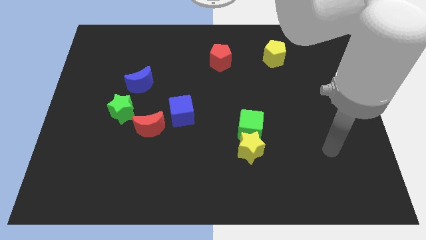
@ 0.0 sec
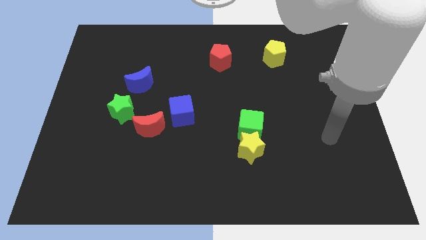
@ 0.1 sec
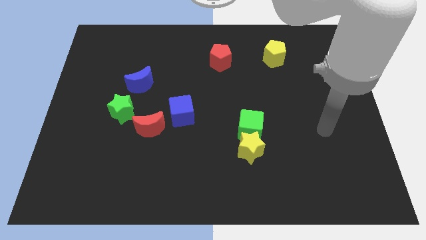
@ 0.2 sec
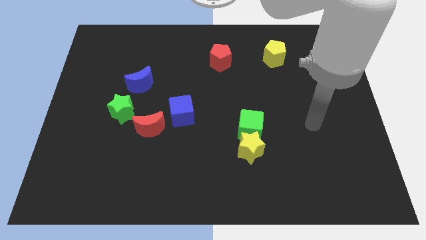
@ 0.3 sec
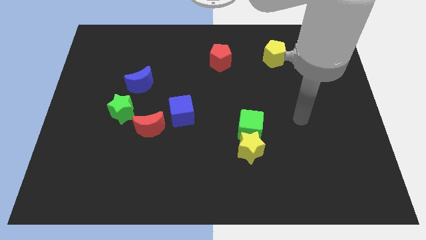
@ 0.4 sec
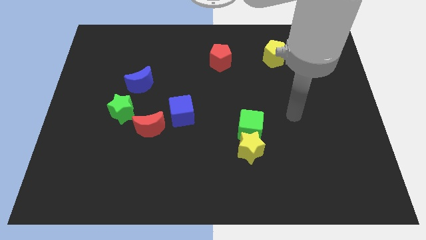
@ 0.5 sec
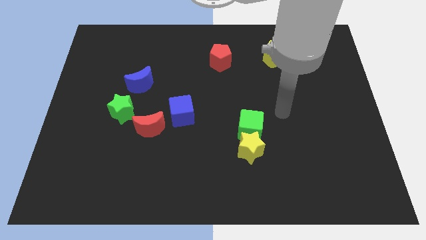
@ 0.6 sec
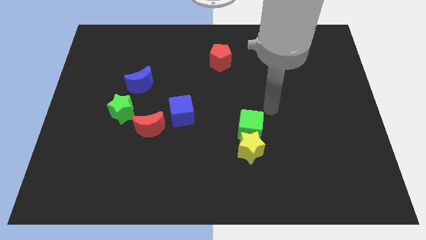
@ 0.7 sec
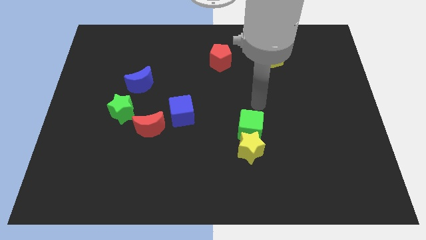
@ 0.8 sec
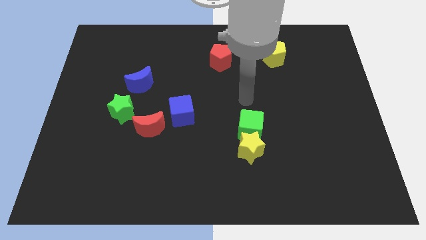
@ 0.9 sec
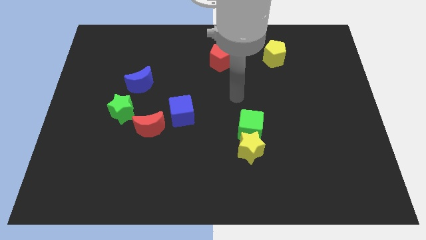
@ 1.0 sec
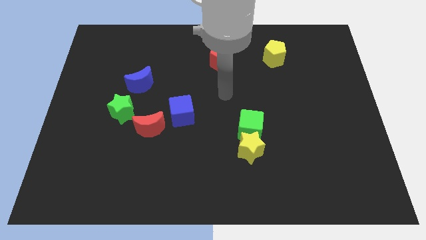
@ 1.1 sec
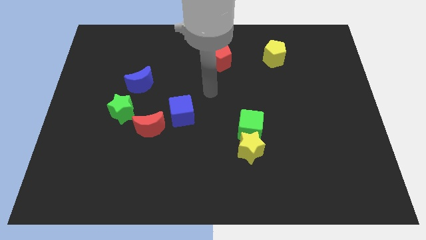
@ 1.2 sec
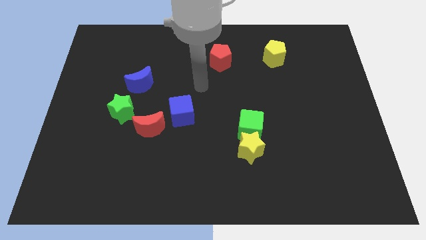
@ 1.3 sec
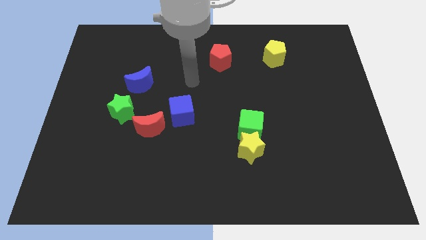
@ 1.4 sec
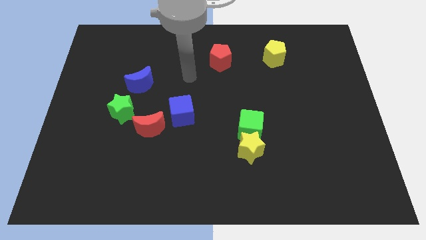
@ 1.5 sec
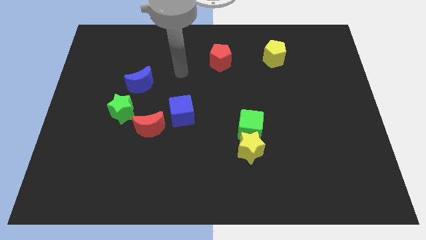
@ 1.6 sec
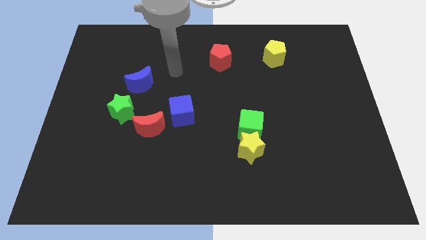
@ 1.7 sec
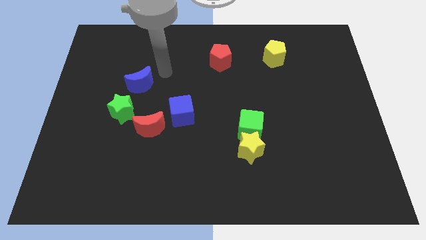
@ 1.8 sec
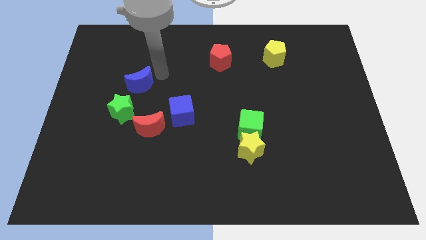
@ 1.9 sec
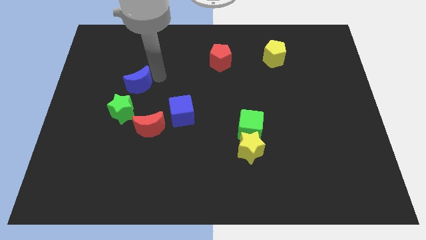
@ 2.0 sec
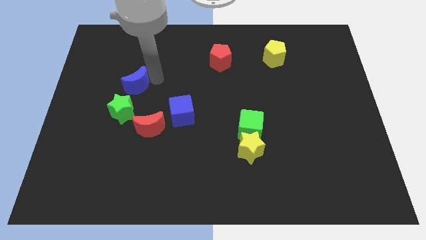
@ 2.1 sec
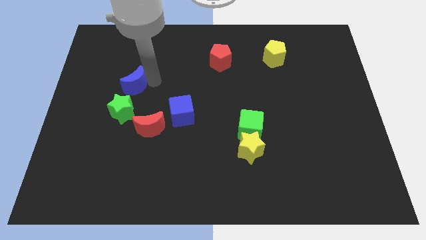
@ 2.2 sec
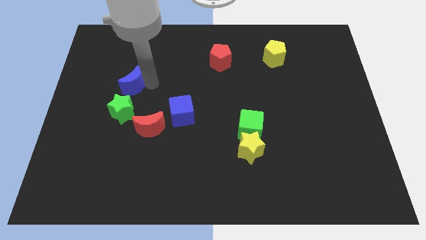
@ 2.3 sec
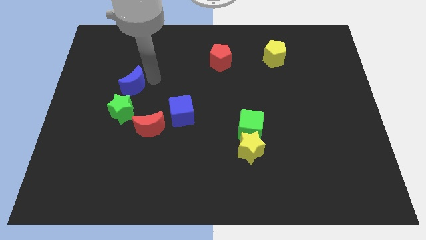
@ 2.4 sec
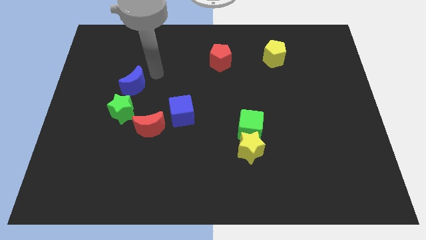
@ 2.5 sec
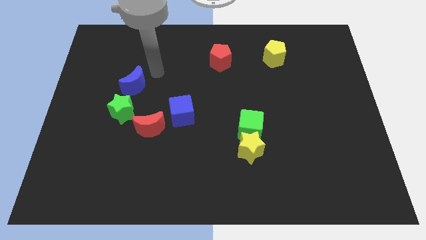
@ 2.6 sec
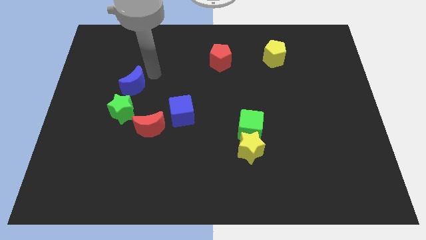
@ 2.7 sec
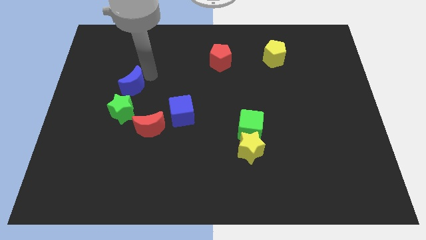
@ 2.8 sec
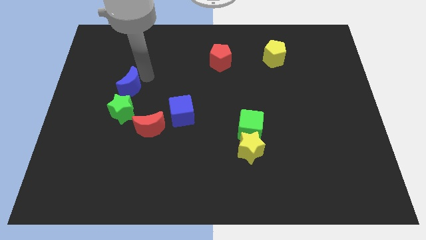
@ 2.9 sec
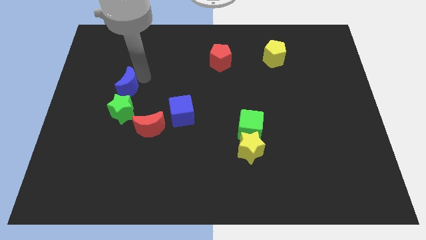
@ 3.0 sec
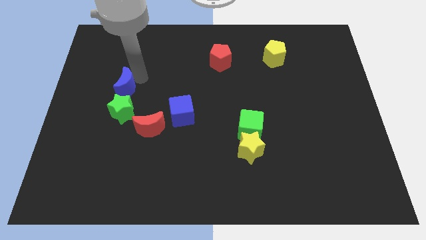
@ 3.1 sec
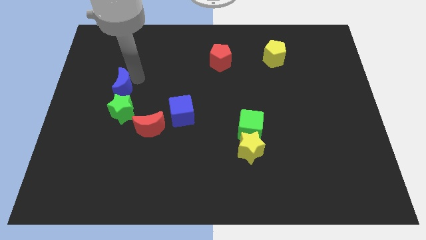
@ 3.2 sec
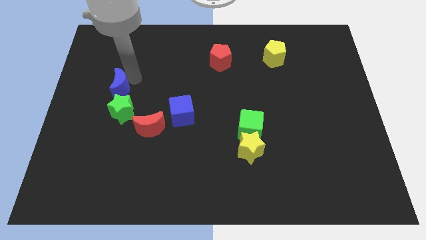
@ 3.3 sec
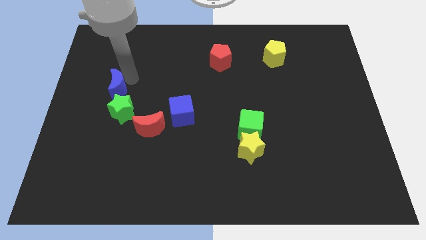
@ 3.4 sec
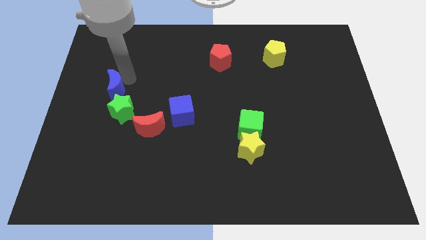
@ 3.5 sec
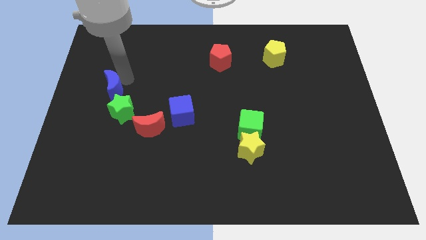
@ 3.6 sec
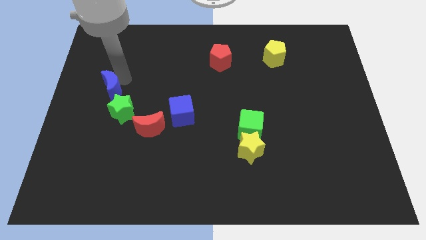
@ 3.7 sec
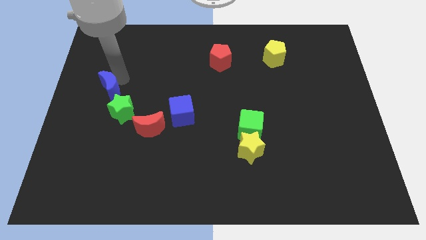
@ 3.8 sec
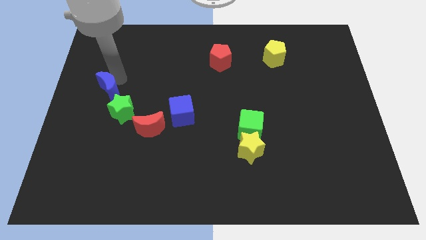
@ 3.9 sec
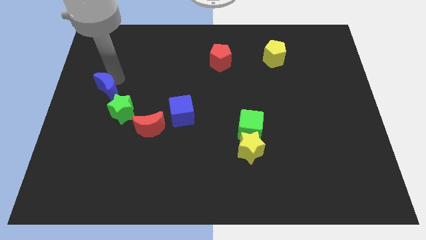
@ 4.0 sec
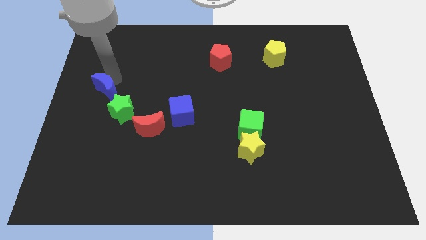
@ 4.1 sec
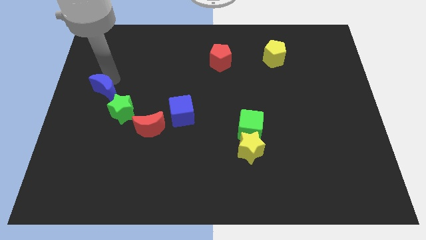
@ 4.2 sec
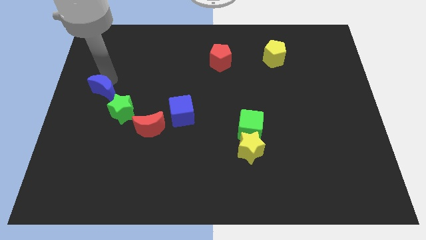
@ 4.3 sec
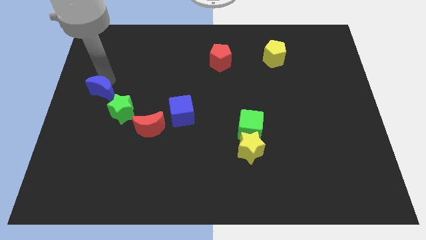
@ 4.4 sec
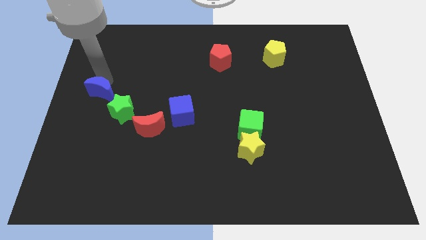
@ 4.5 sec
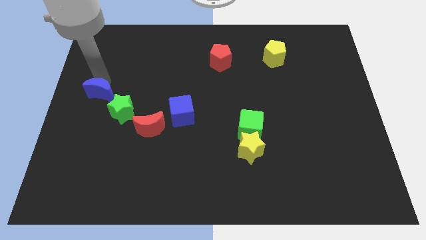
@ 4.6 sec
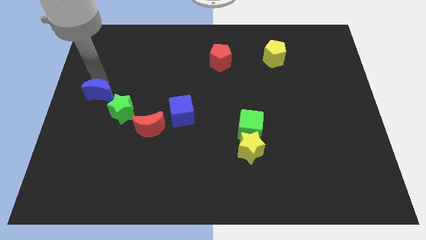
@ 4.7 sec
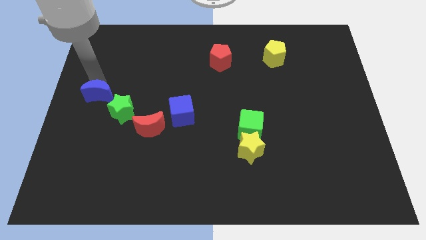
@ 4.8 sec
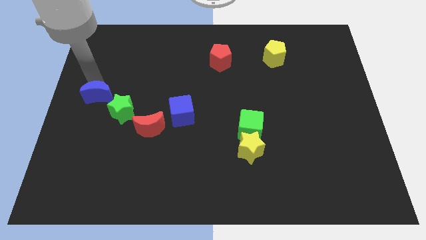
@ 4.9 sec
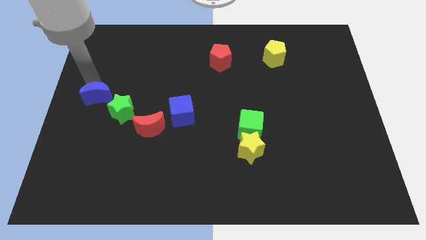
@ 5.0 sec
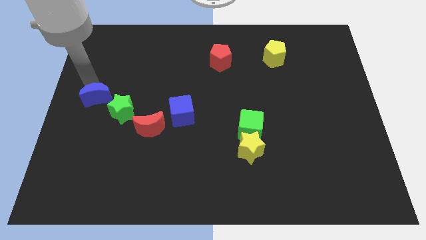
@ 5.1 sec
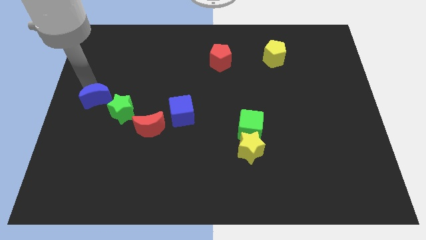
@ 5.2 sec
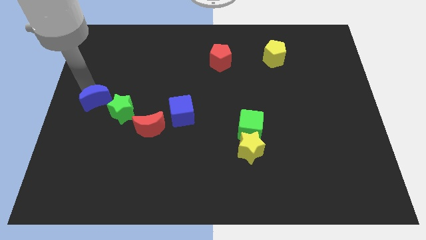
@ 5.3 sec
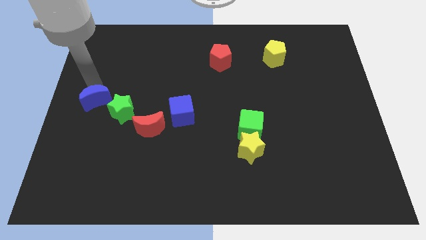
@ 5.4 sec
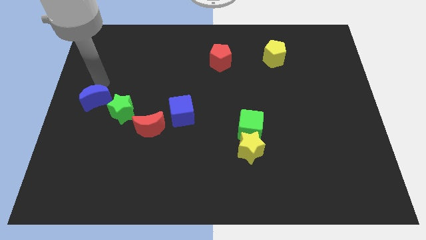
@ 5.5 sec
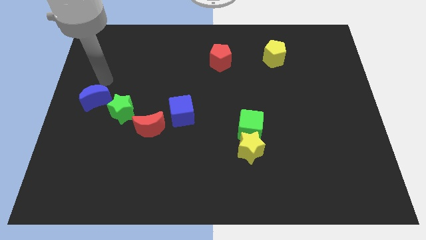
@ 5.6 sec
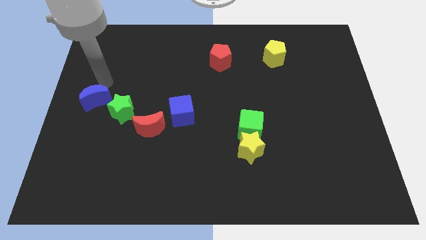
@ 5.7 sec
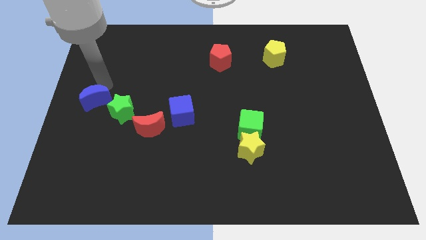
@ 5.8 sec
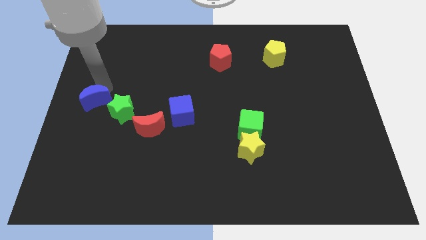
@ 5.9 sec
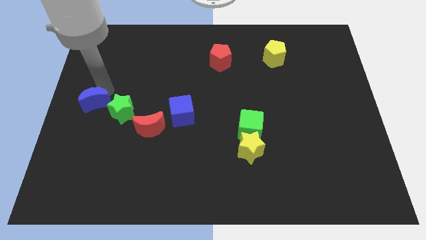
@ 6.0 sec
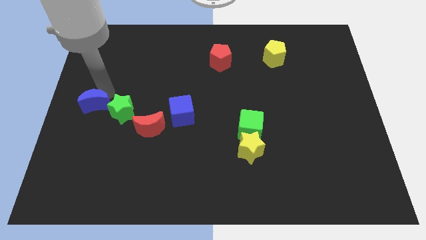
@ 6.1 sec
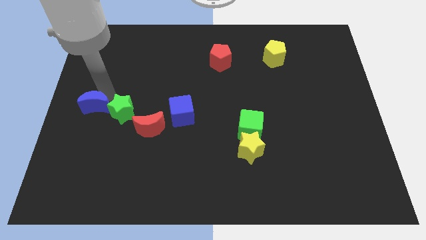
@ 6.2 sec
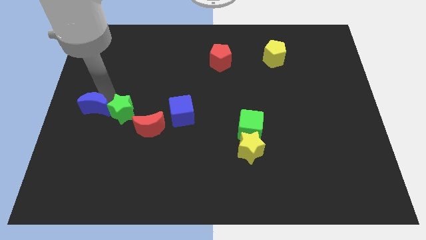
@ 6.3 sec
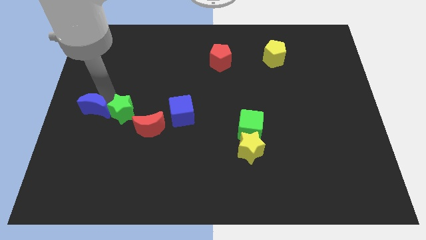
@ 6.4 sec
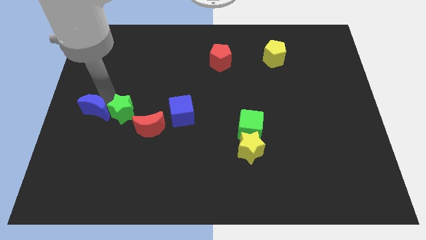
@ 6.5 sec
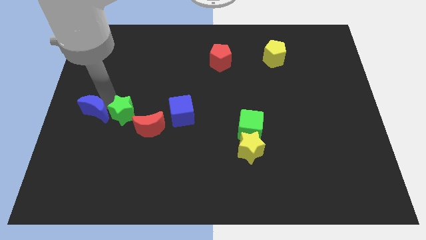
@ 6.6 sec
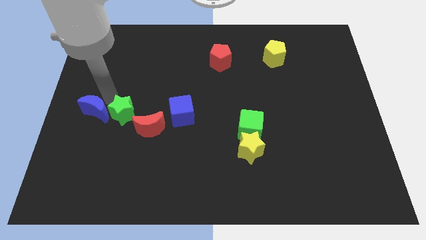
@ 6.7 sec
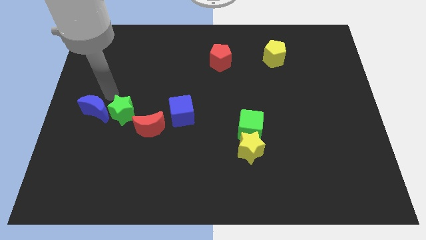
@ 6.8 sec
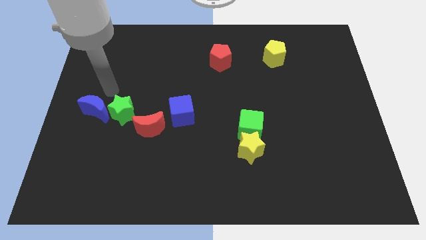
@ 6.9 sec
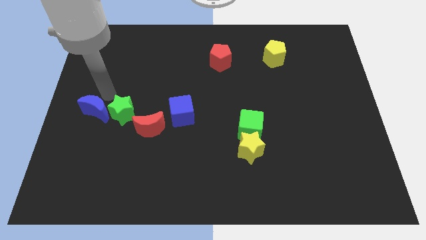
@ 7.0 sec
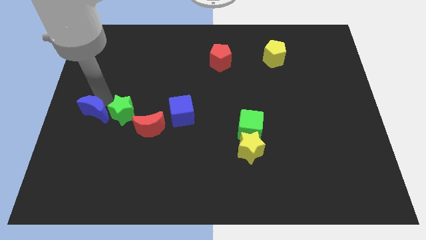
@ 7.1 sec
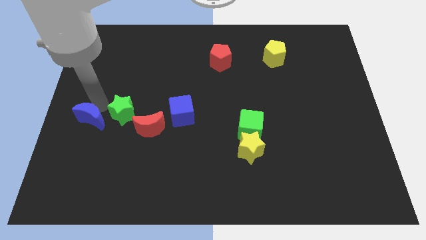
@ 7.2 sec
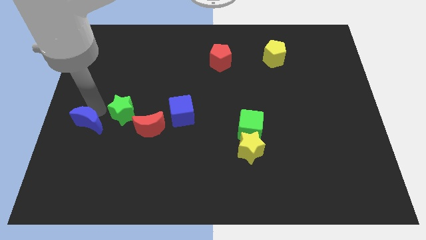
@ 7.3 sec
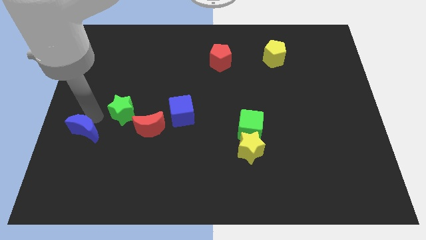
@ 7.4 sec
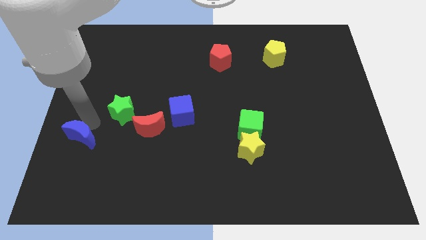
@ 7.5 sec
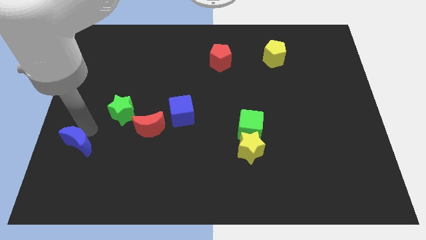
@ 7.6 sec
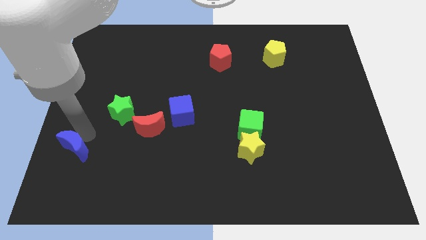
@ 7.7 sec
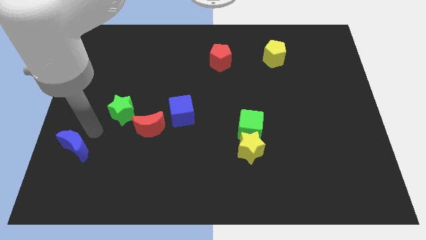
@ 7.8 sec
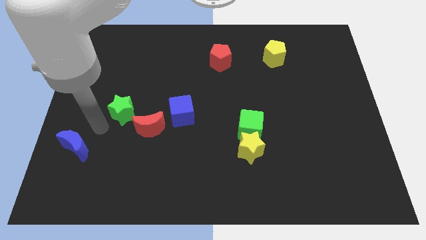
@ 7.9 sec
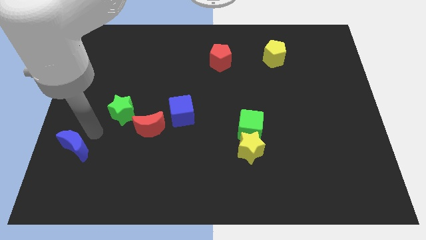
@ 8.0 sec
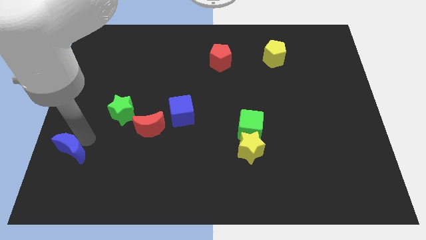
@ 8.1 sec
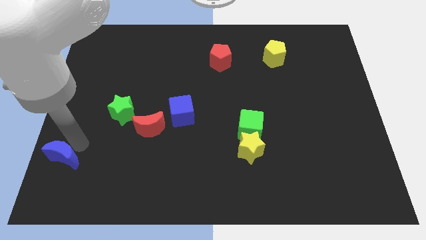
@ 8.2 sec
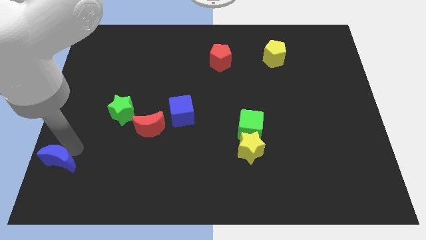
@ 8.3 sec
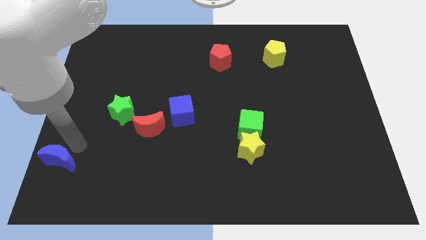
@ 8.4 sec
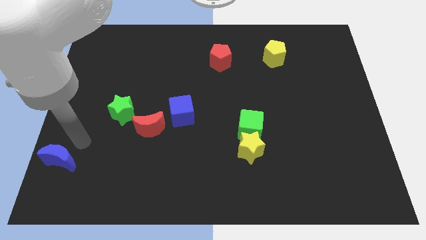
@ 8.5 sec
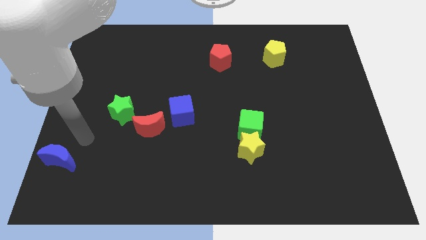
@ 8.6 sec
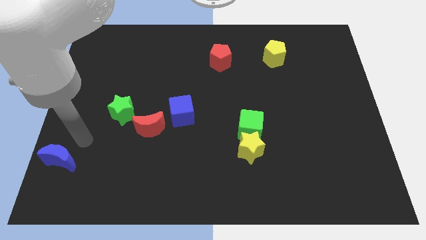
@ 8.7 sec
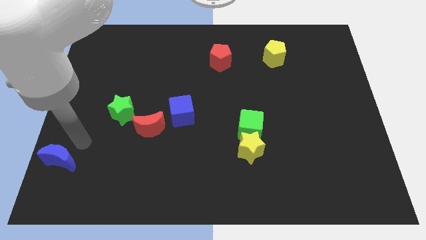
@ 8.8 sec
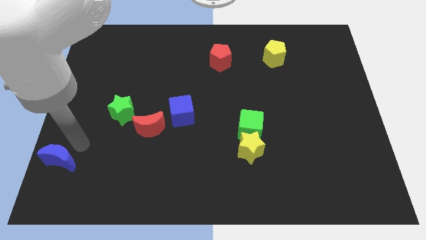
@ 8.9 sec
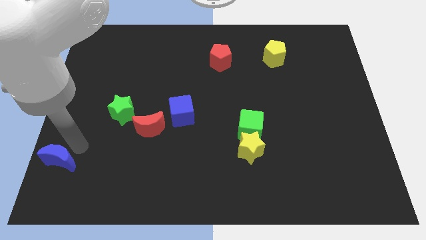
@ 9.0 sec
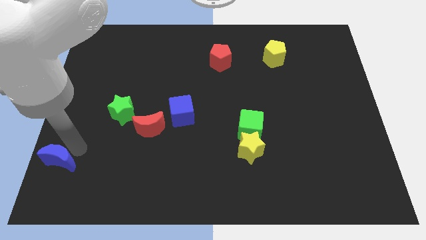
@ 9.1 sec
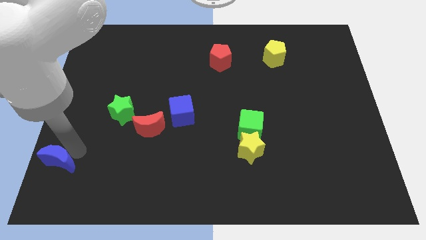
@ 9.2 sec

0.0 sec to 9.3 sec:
slide the blue moon to the lower left corner
